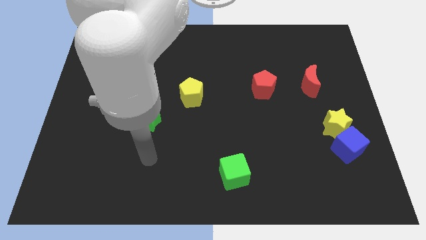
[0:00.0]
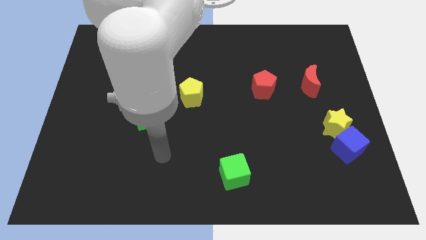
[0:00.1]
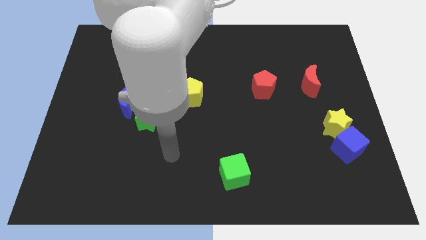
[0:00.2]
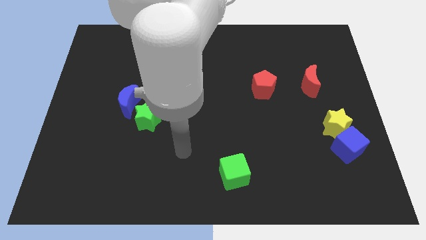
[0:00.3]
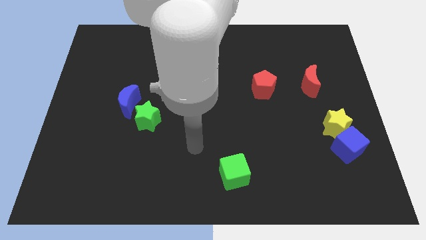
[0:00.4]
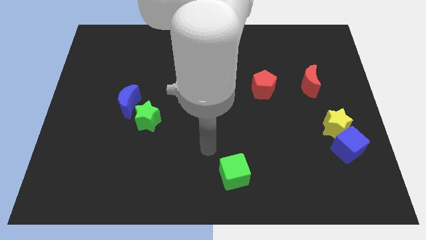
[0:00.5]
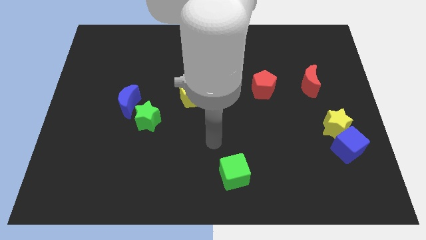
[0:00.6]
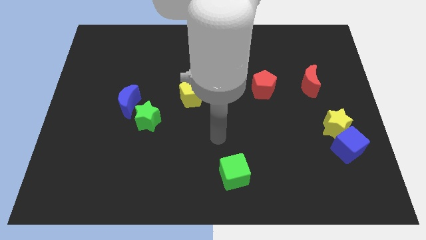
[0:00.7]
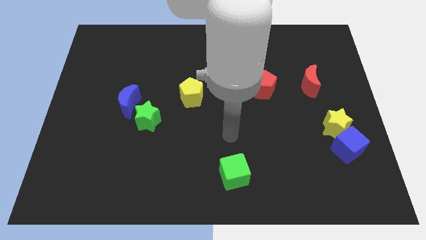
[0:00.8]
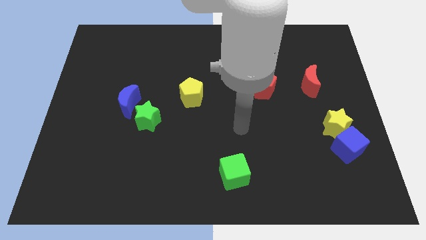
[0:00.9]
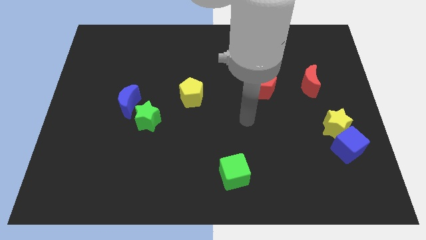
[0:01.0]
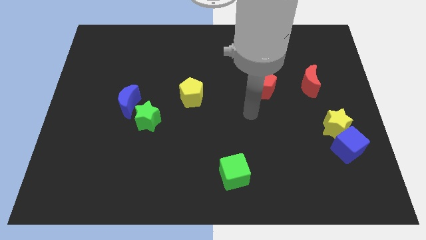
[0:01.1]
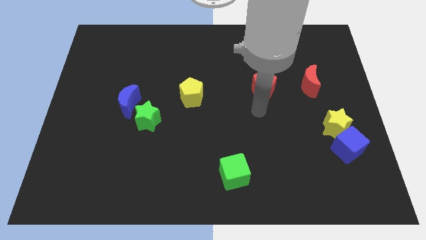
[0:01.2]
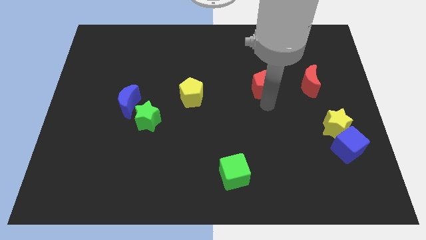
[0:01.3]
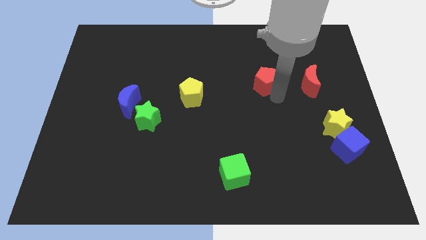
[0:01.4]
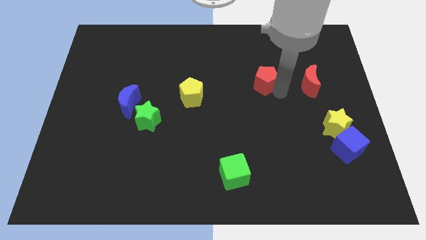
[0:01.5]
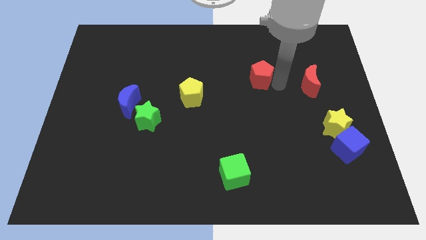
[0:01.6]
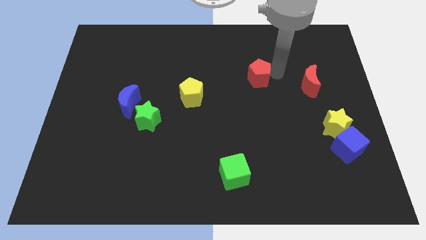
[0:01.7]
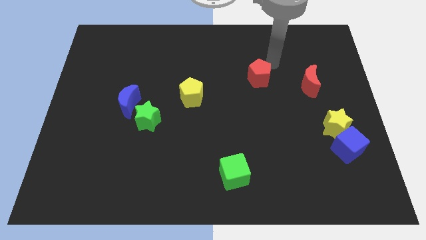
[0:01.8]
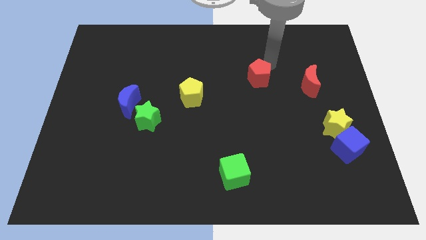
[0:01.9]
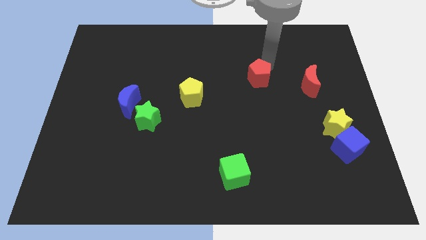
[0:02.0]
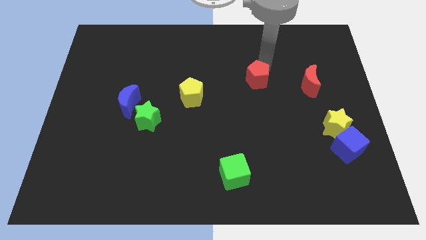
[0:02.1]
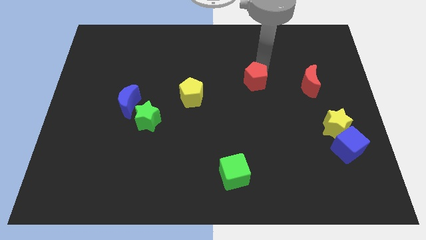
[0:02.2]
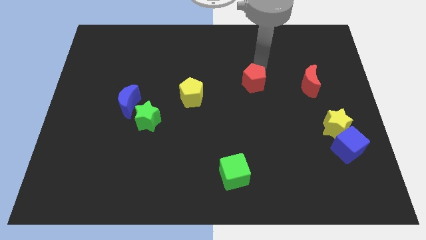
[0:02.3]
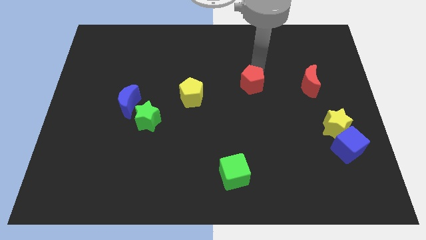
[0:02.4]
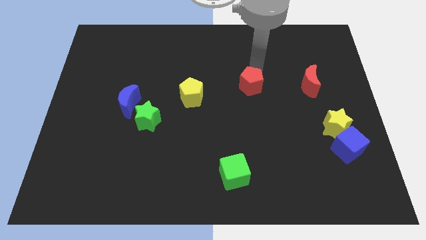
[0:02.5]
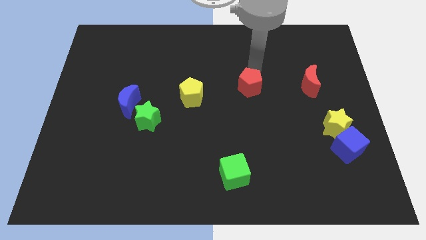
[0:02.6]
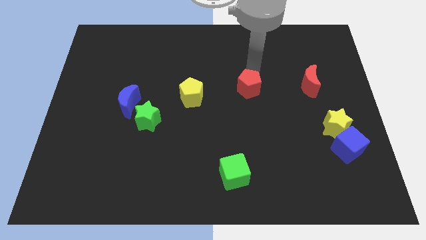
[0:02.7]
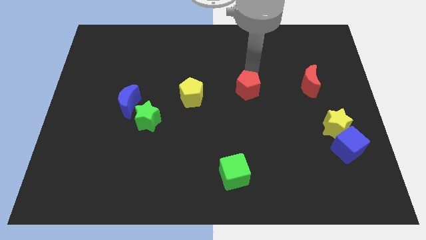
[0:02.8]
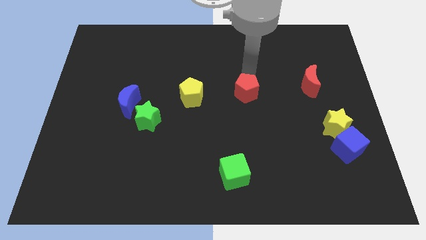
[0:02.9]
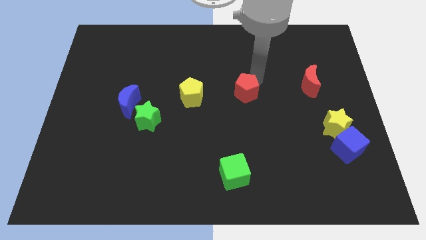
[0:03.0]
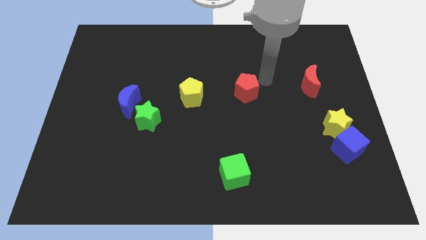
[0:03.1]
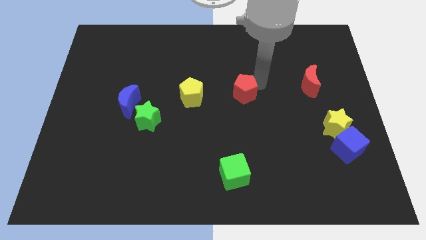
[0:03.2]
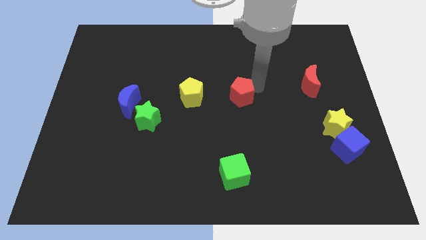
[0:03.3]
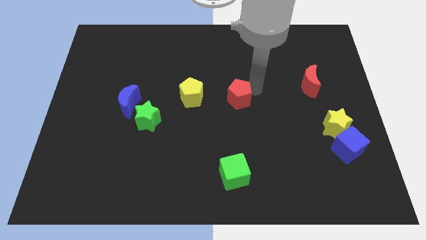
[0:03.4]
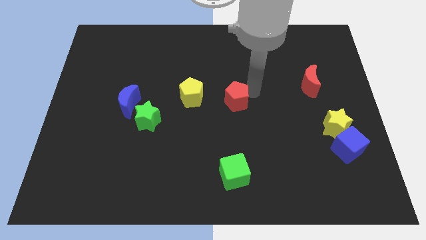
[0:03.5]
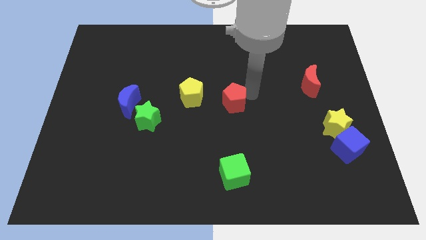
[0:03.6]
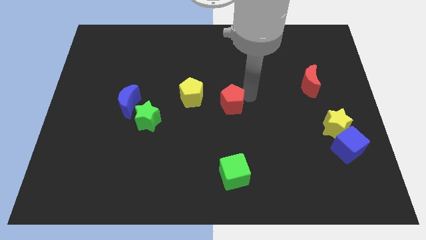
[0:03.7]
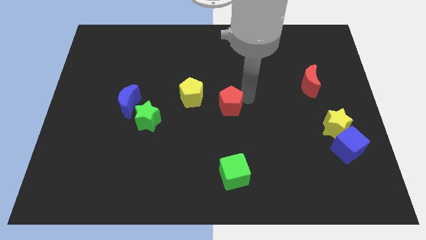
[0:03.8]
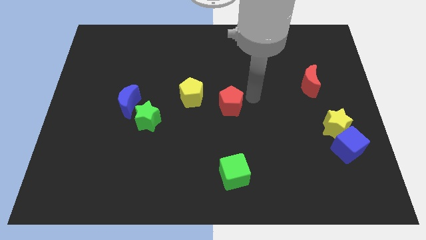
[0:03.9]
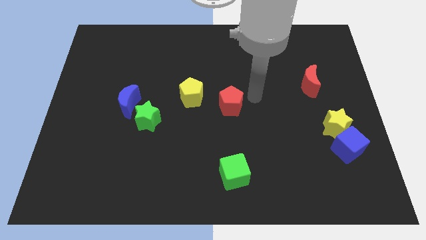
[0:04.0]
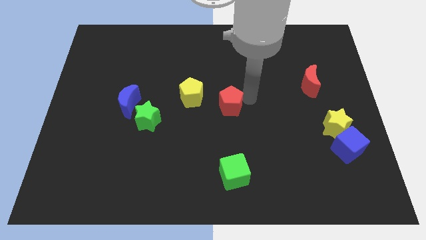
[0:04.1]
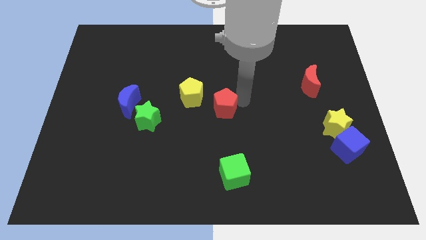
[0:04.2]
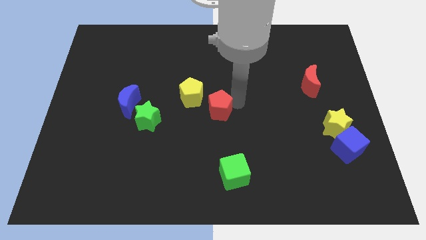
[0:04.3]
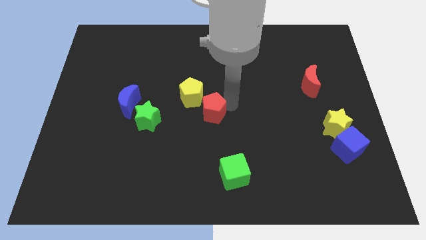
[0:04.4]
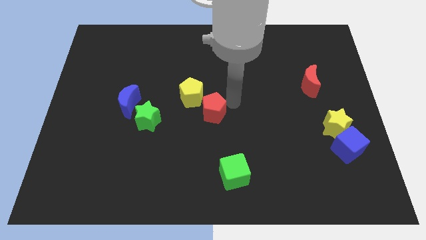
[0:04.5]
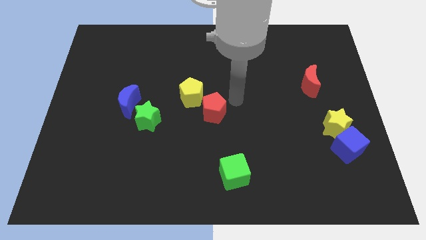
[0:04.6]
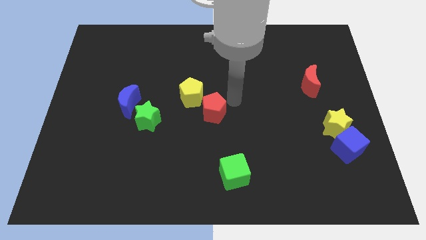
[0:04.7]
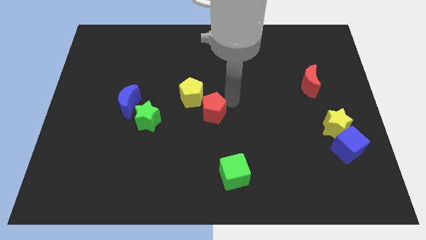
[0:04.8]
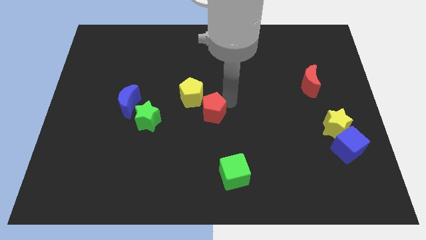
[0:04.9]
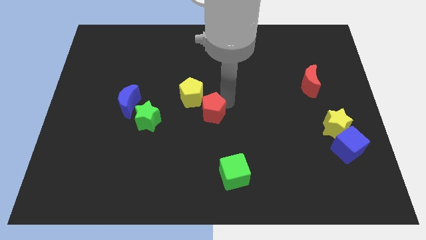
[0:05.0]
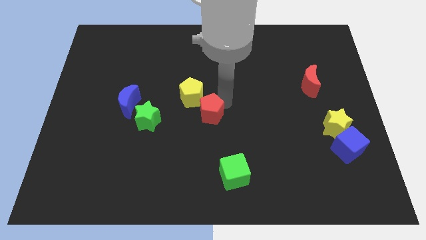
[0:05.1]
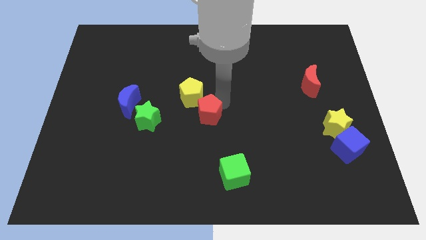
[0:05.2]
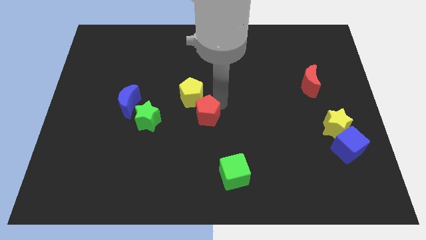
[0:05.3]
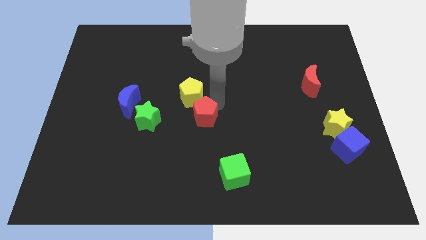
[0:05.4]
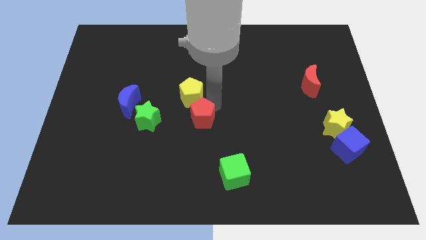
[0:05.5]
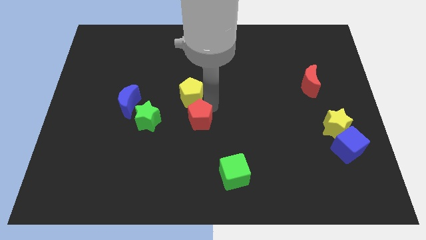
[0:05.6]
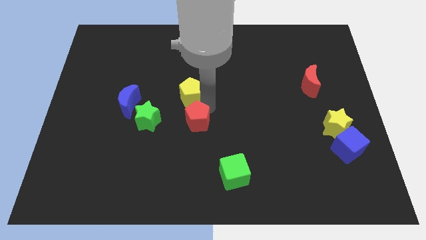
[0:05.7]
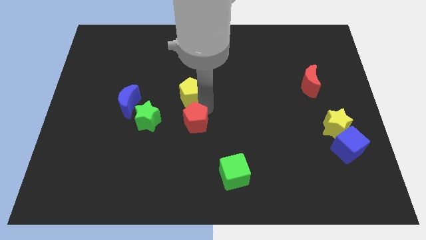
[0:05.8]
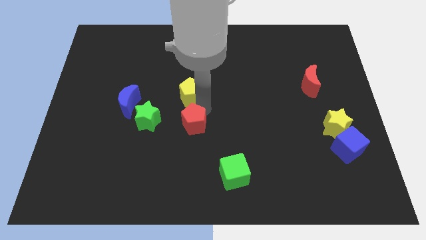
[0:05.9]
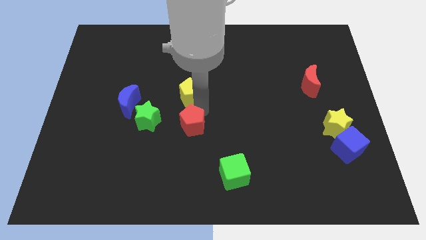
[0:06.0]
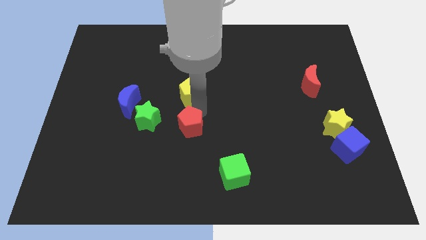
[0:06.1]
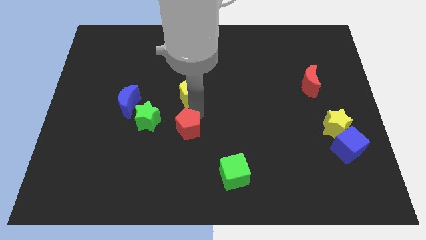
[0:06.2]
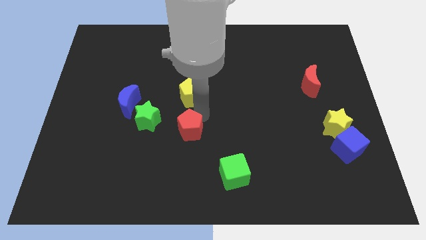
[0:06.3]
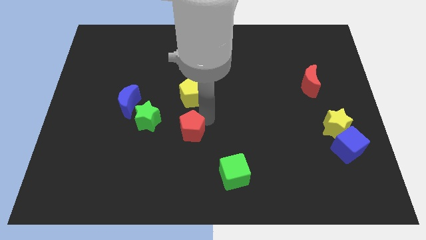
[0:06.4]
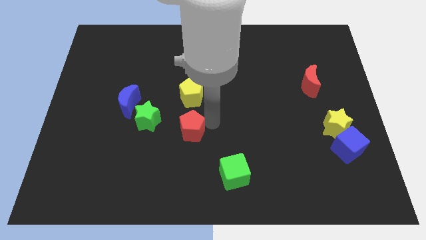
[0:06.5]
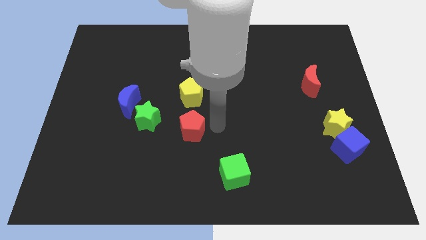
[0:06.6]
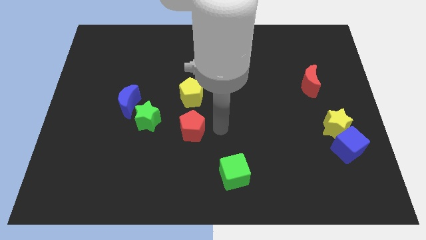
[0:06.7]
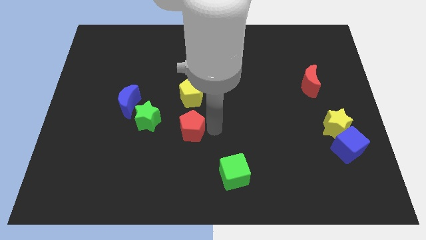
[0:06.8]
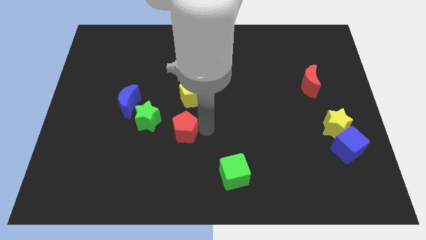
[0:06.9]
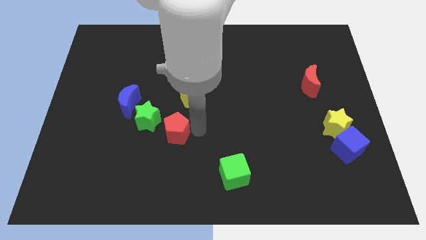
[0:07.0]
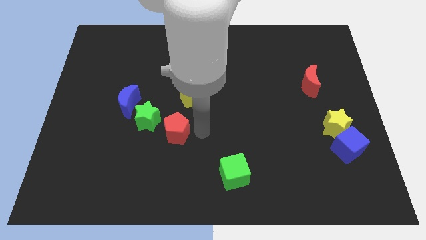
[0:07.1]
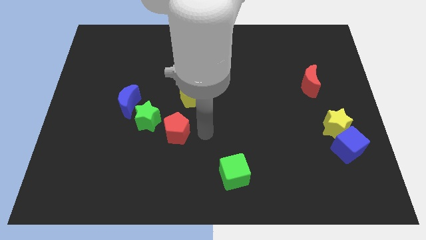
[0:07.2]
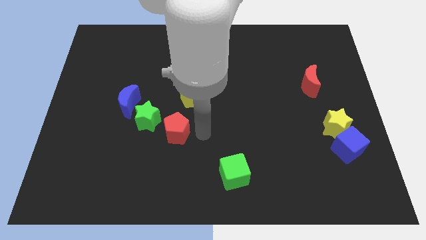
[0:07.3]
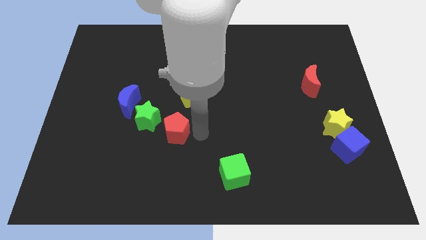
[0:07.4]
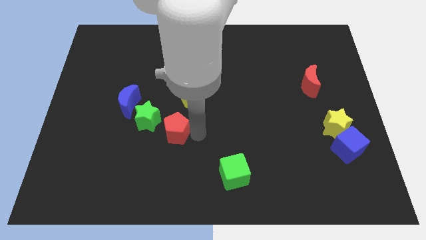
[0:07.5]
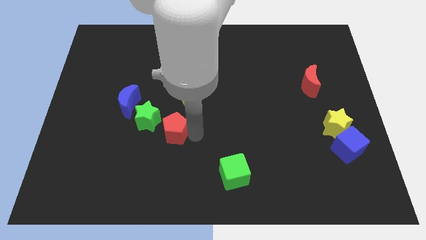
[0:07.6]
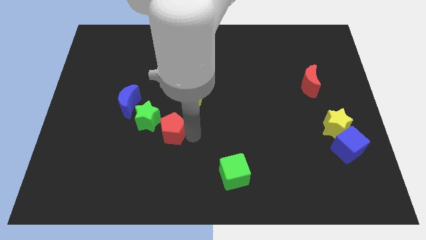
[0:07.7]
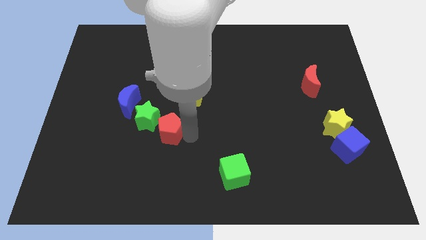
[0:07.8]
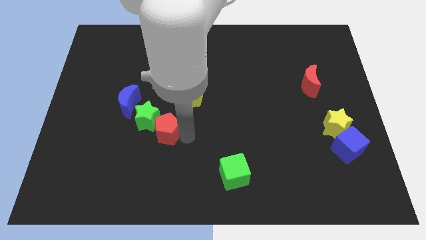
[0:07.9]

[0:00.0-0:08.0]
move the red pentagon diagonally down and to the right of the blue moon
